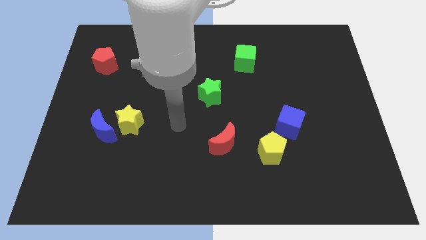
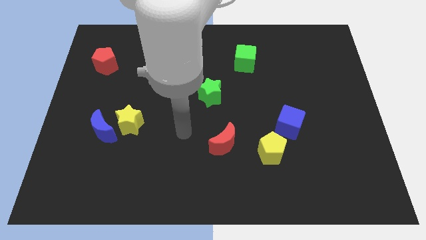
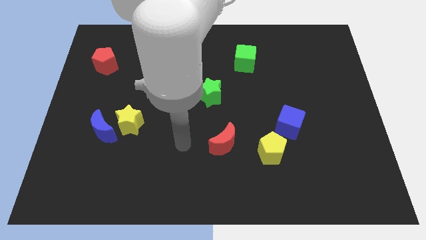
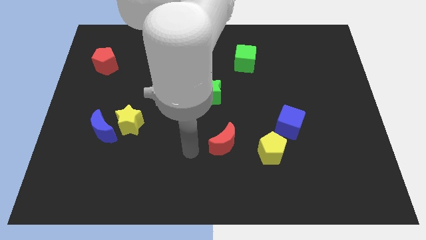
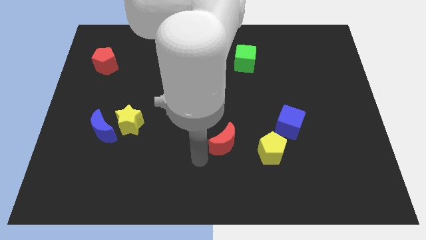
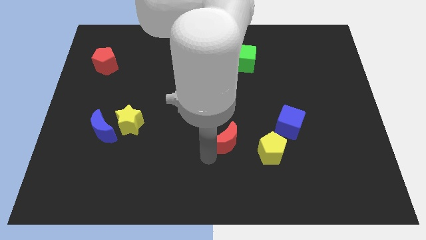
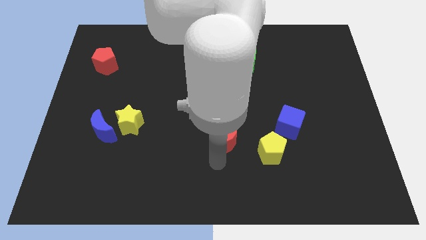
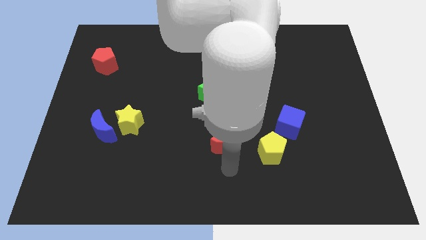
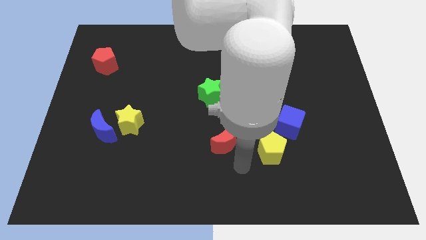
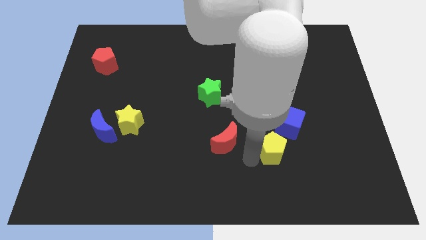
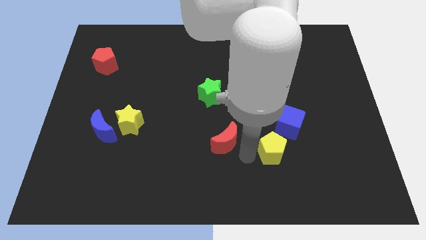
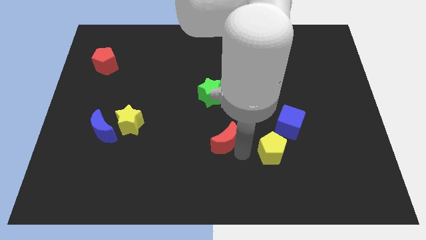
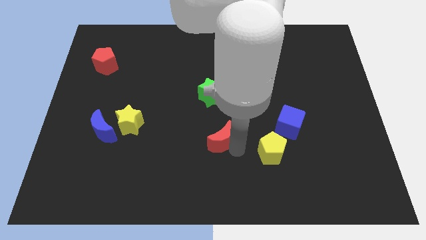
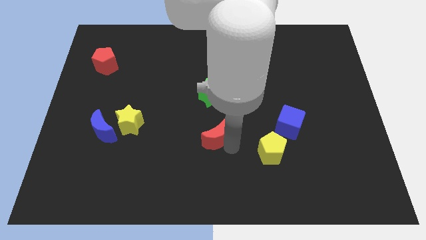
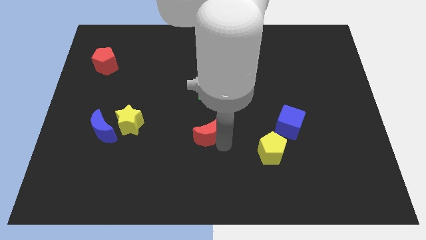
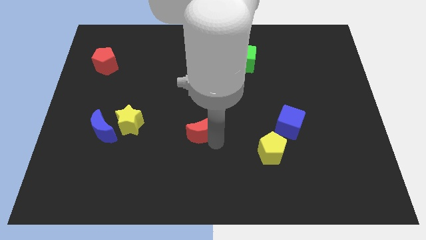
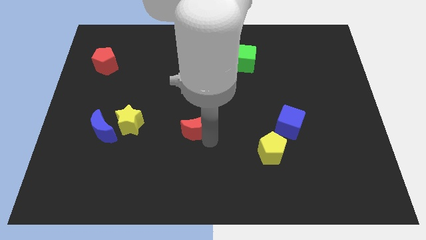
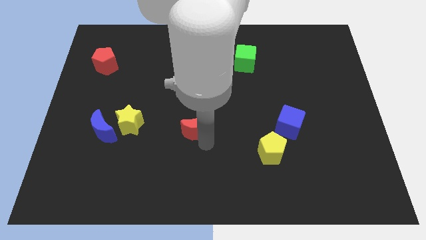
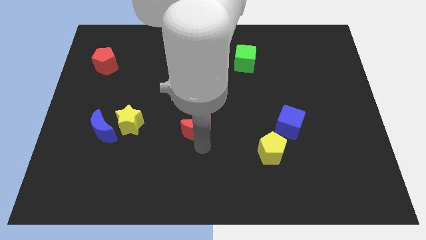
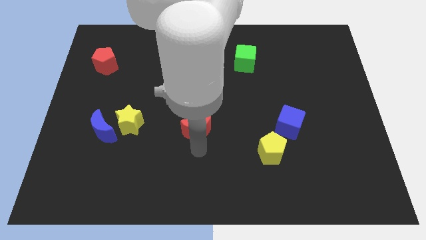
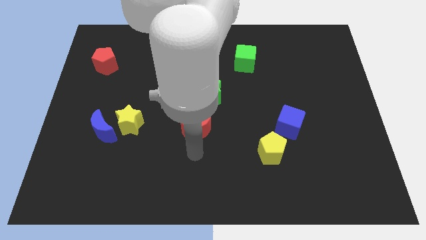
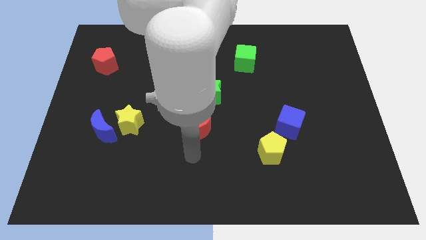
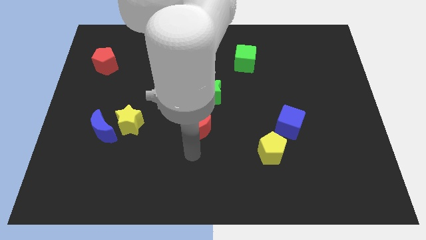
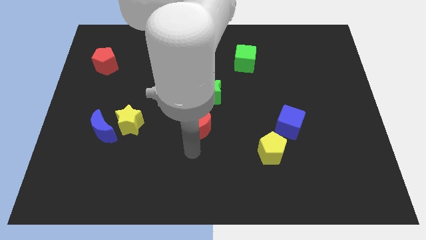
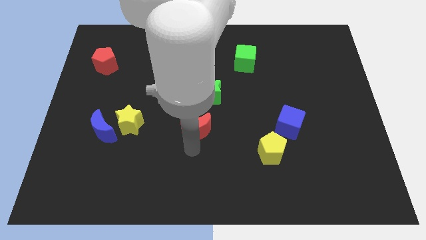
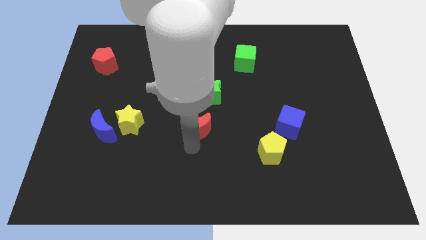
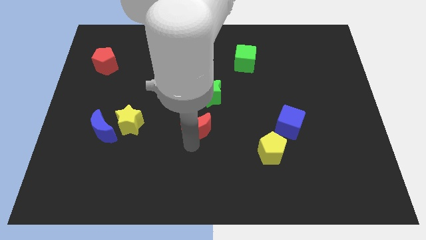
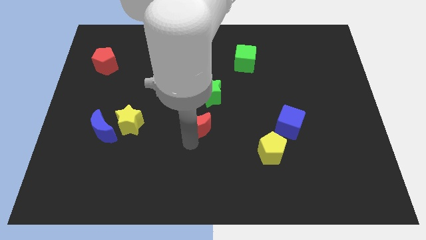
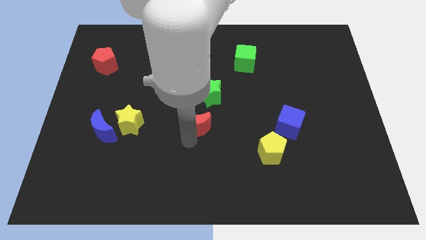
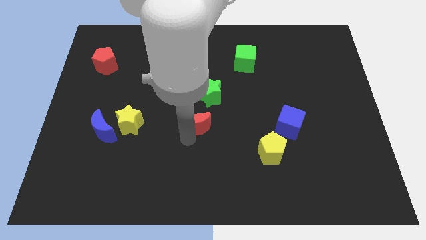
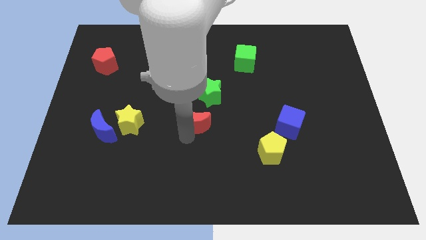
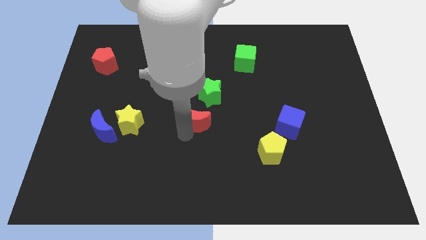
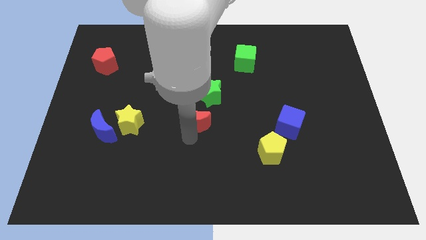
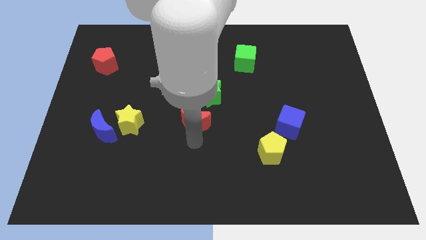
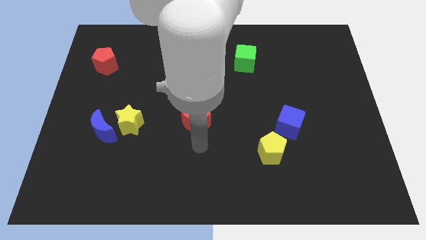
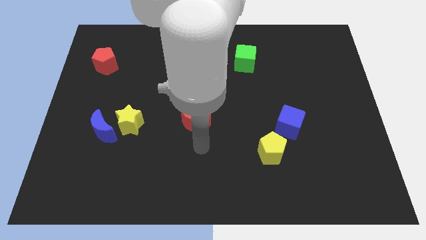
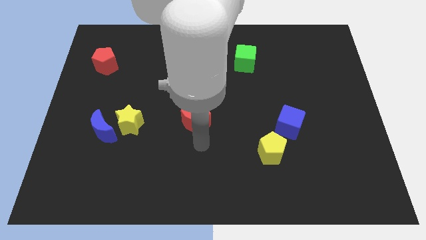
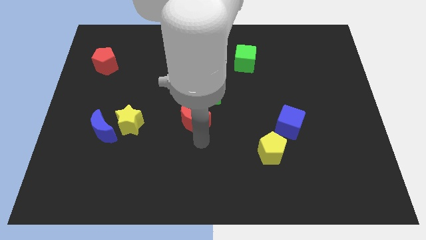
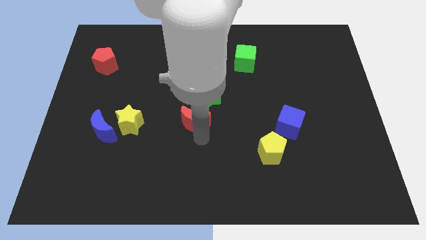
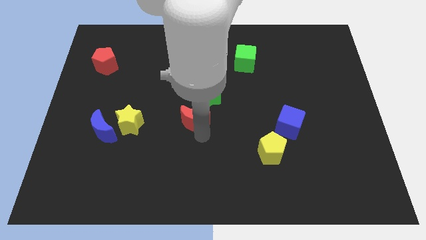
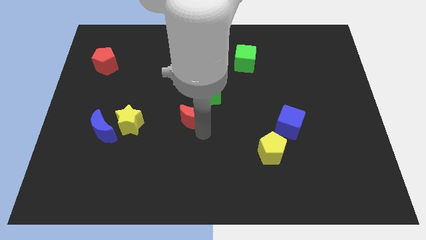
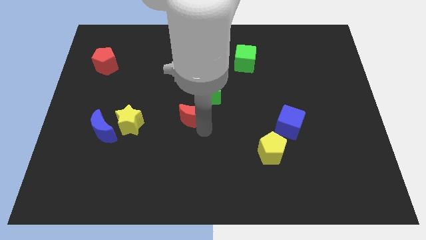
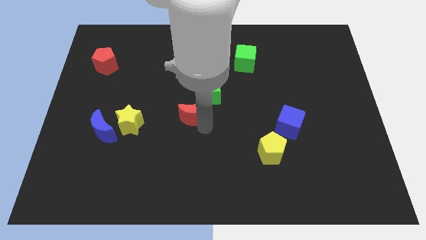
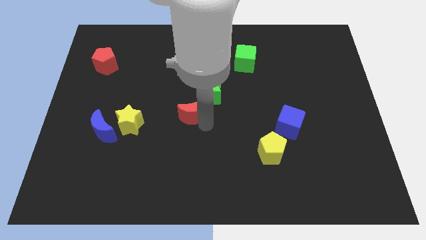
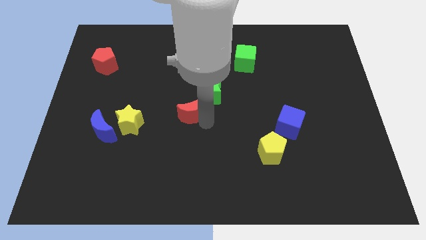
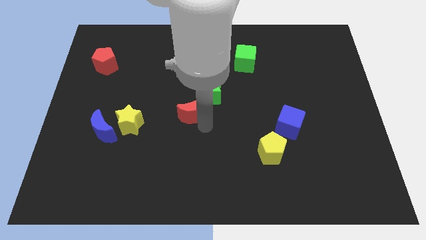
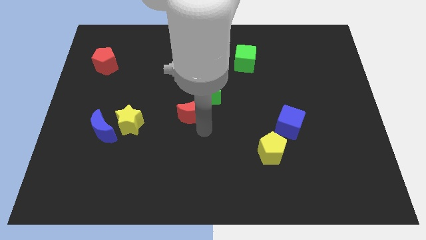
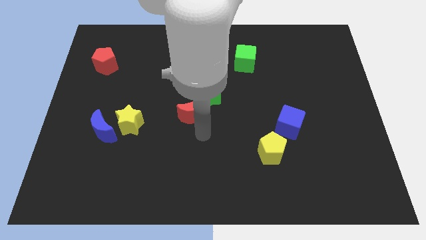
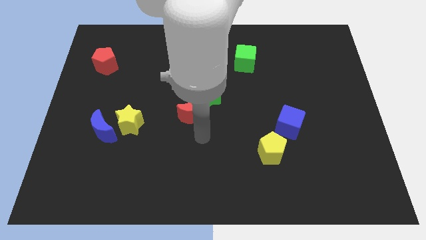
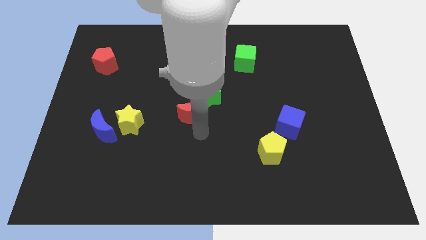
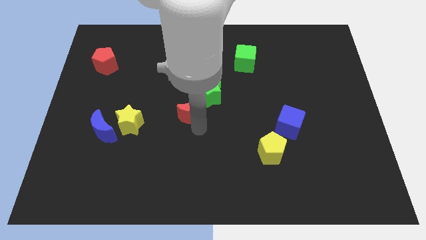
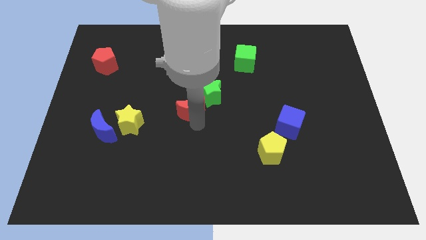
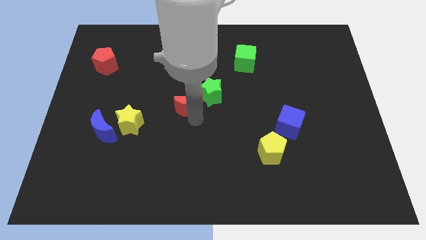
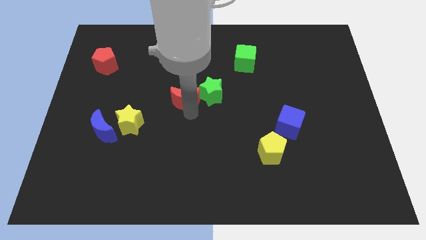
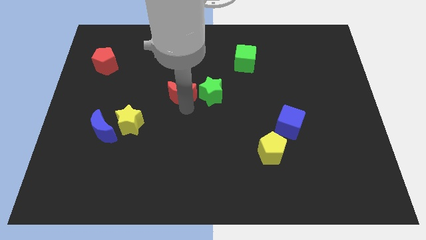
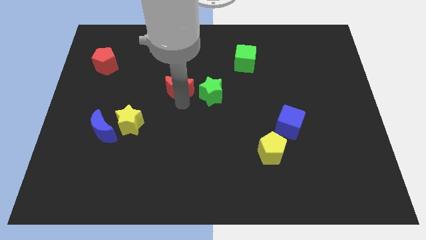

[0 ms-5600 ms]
put the red moon to the top left of the green star
